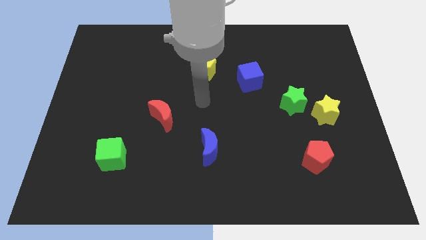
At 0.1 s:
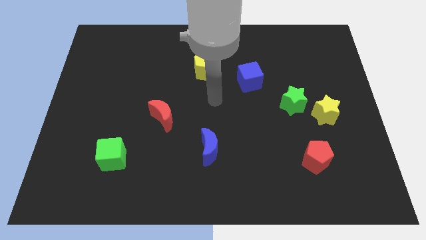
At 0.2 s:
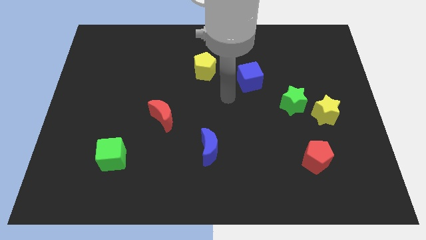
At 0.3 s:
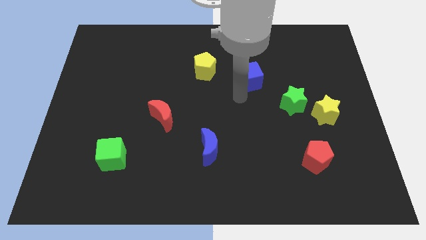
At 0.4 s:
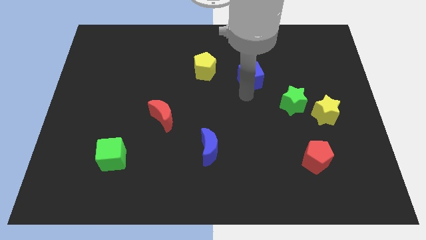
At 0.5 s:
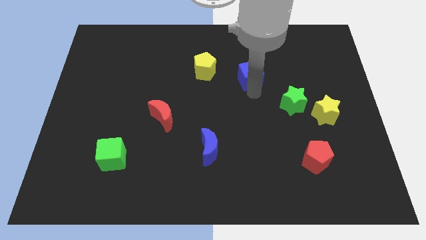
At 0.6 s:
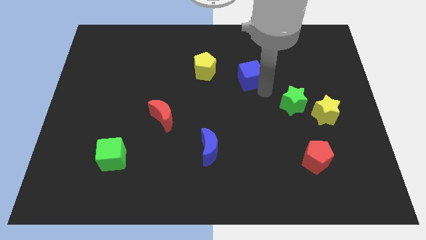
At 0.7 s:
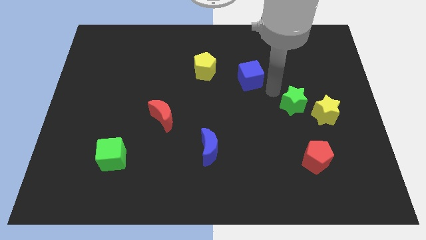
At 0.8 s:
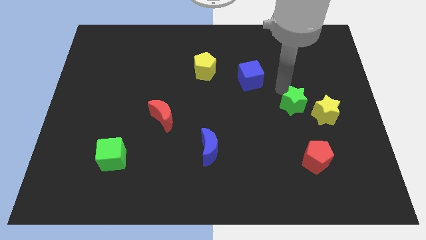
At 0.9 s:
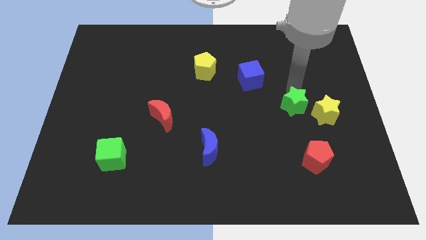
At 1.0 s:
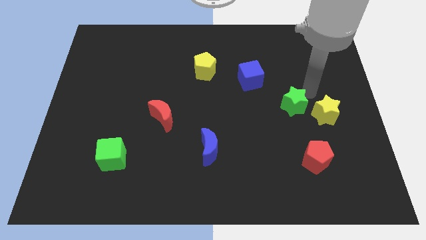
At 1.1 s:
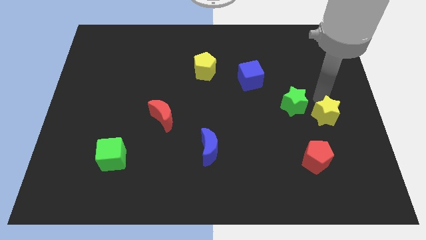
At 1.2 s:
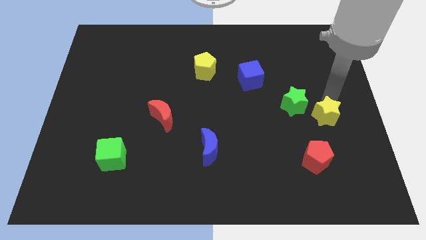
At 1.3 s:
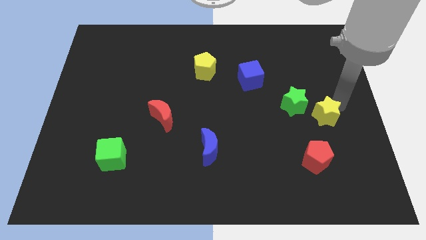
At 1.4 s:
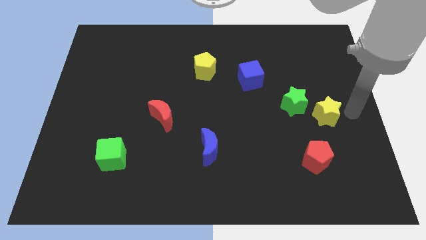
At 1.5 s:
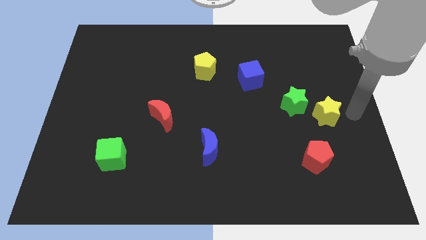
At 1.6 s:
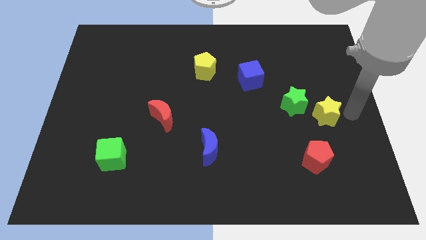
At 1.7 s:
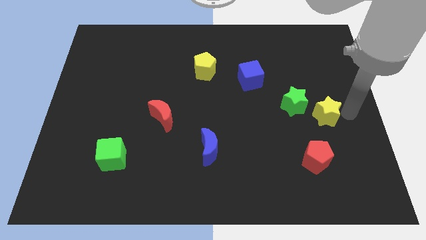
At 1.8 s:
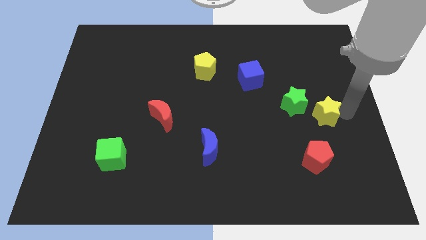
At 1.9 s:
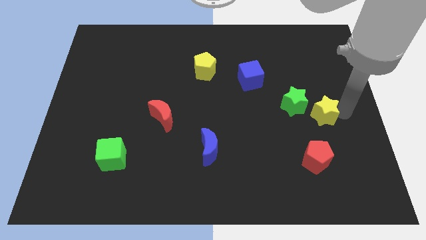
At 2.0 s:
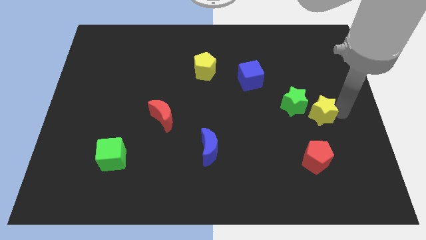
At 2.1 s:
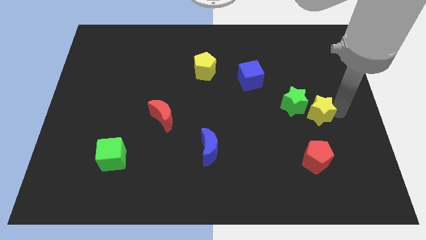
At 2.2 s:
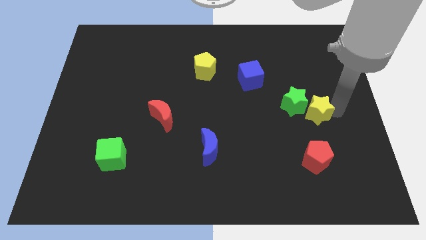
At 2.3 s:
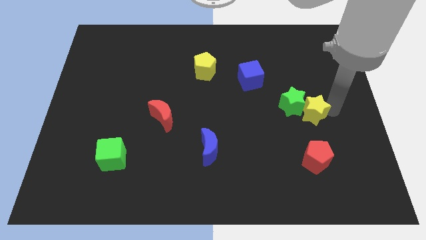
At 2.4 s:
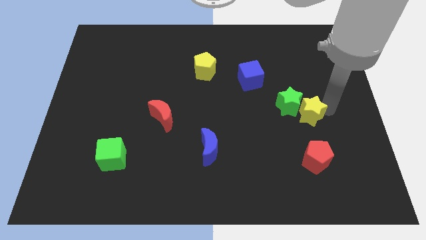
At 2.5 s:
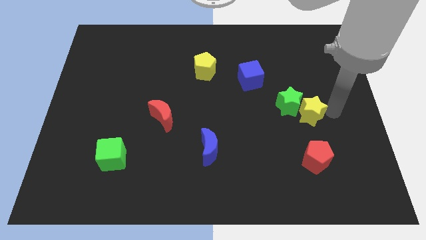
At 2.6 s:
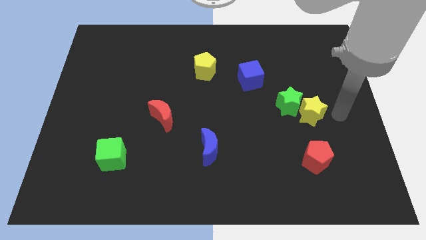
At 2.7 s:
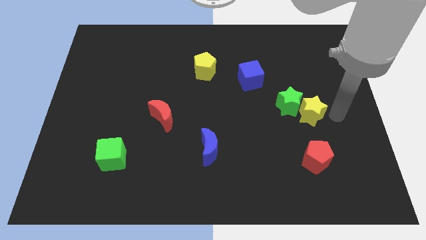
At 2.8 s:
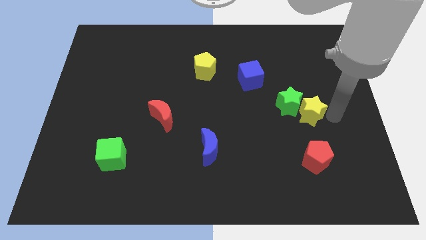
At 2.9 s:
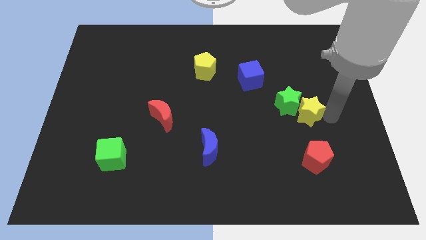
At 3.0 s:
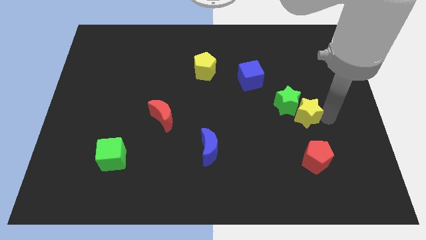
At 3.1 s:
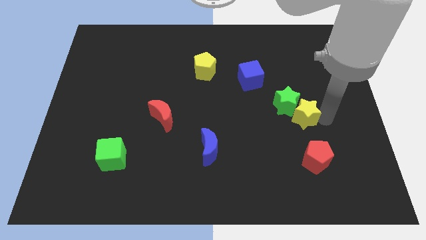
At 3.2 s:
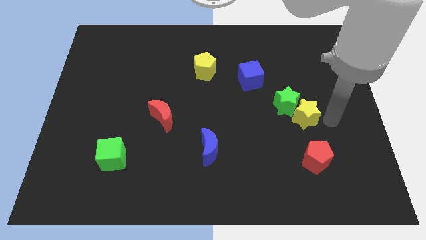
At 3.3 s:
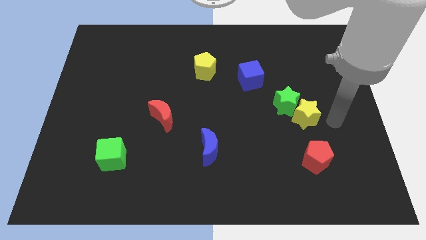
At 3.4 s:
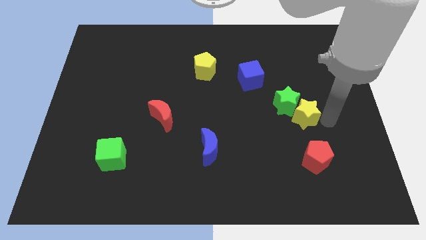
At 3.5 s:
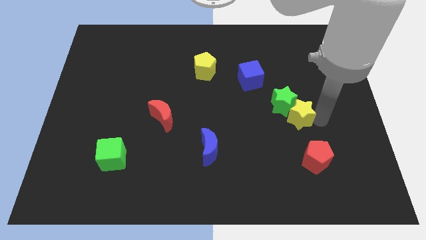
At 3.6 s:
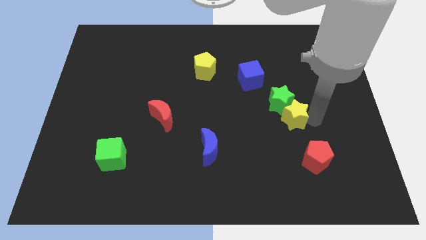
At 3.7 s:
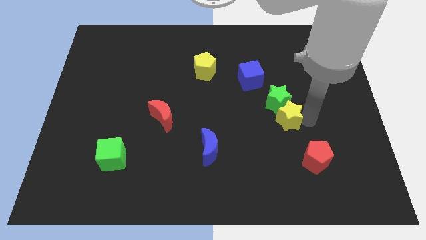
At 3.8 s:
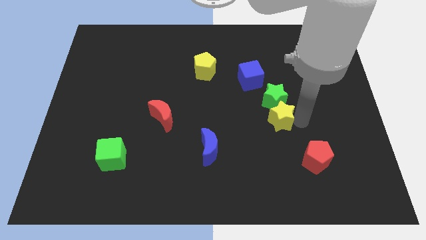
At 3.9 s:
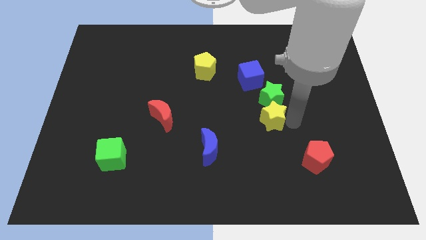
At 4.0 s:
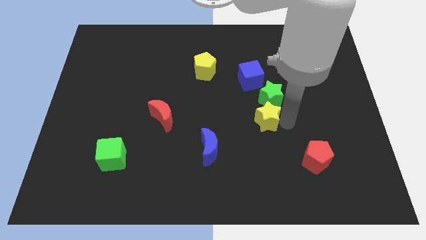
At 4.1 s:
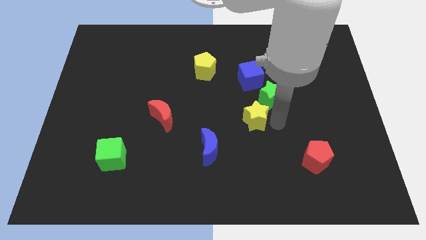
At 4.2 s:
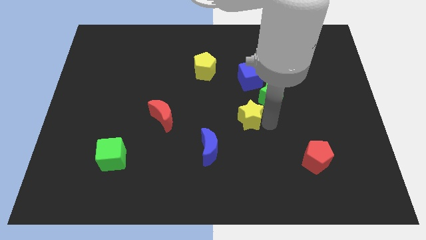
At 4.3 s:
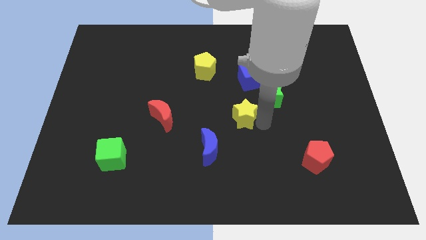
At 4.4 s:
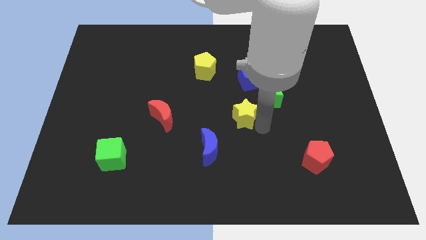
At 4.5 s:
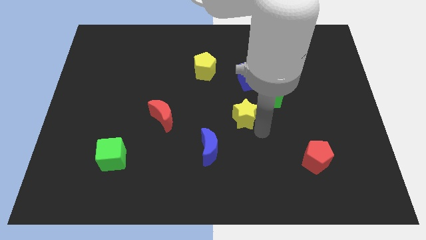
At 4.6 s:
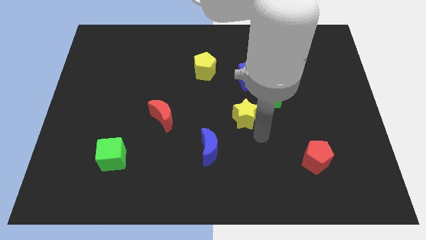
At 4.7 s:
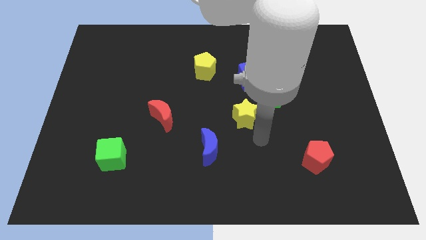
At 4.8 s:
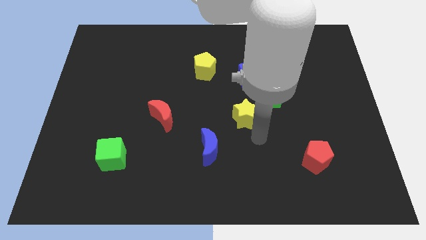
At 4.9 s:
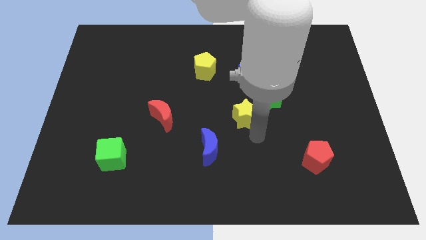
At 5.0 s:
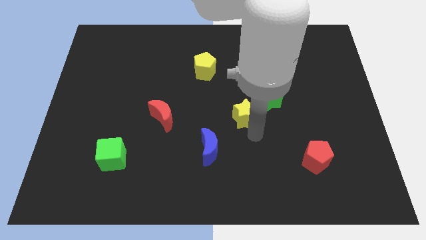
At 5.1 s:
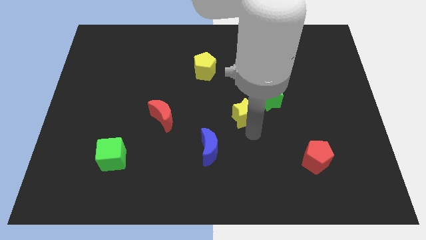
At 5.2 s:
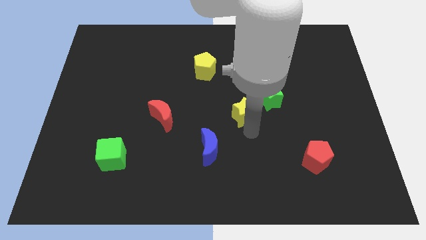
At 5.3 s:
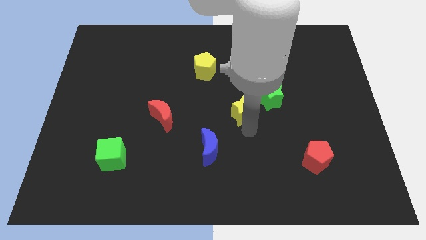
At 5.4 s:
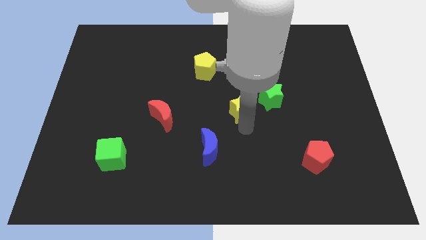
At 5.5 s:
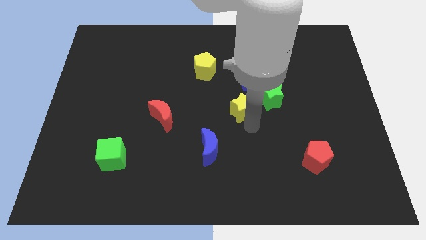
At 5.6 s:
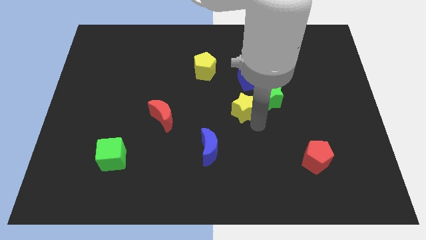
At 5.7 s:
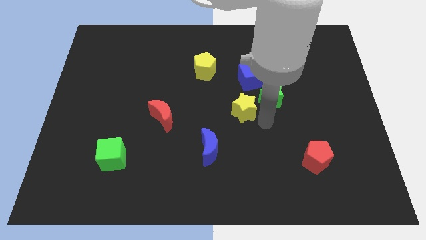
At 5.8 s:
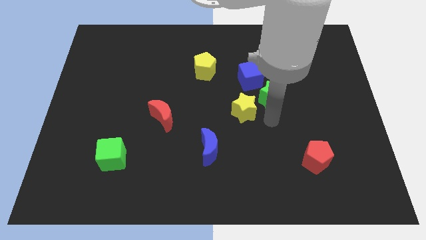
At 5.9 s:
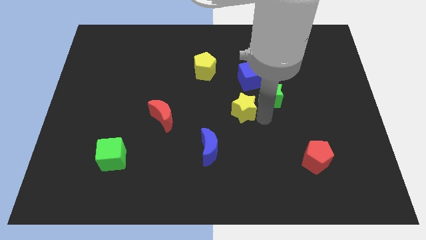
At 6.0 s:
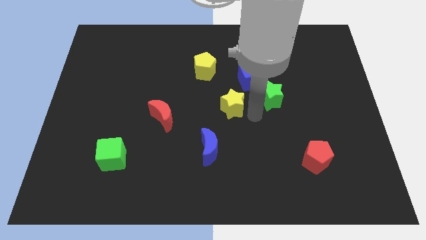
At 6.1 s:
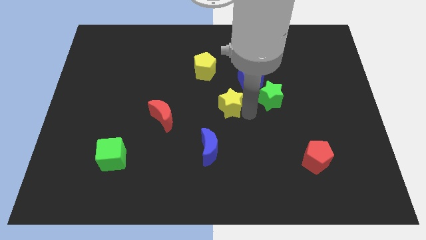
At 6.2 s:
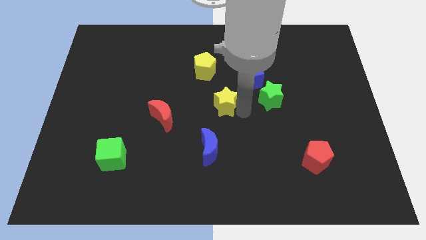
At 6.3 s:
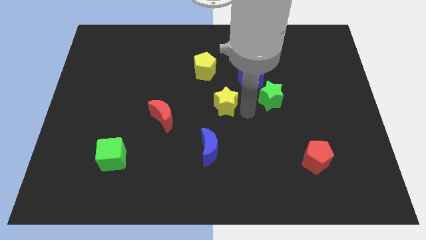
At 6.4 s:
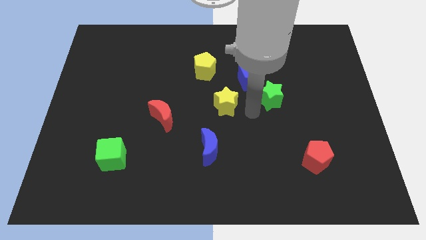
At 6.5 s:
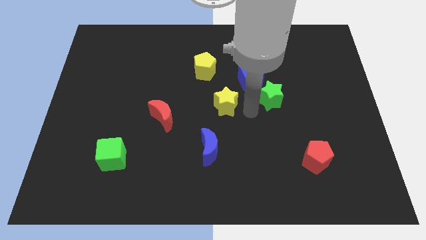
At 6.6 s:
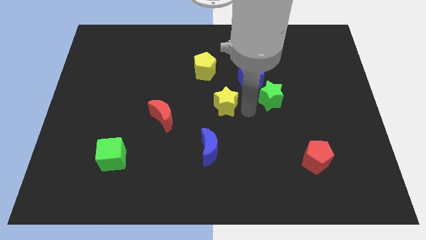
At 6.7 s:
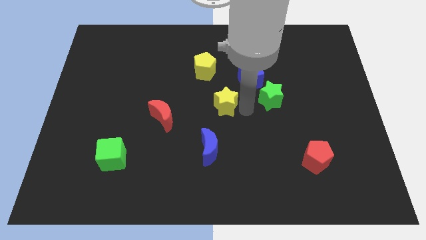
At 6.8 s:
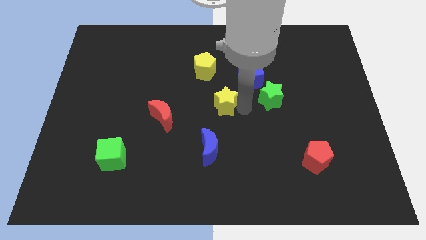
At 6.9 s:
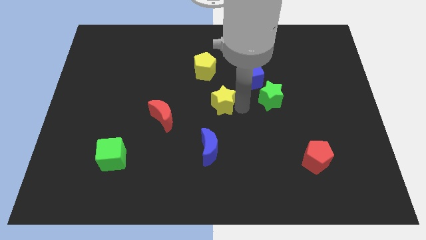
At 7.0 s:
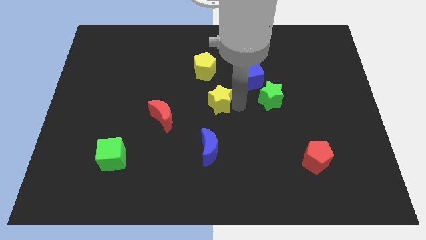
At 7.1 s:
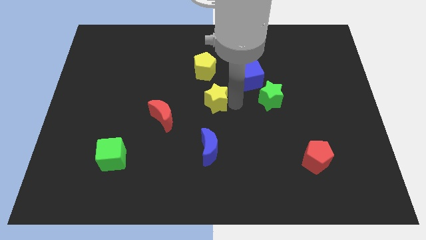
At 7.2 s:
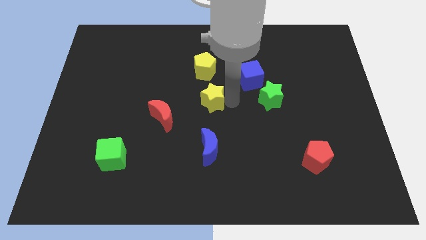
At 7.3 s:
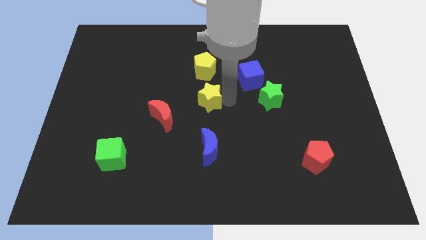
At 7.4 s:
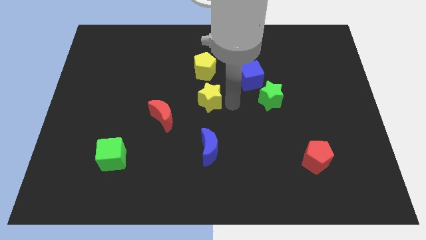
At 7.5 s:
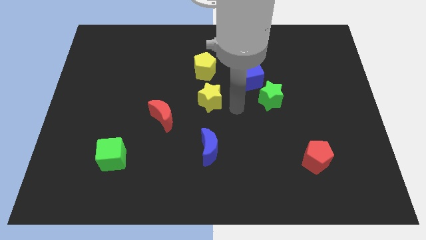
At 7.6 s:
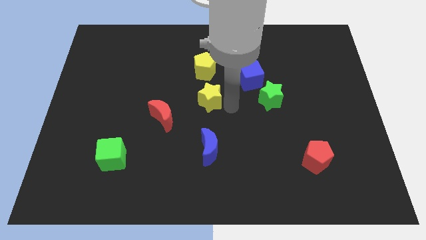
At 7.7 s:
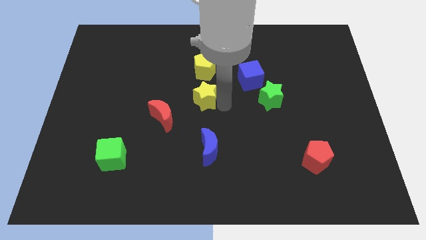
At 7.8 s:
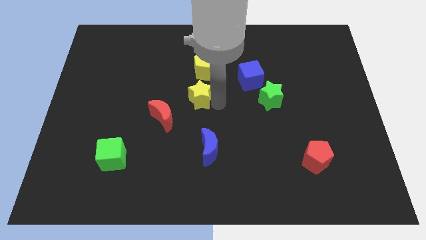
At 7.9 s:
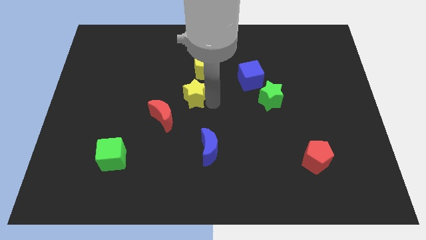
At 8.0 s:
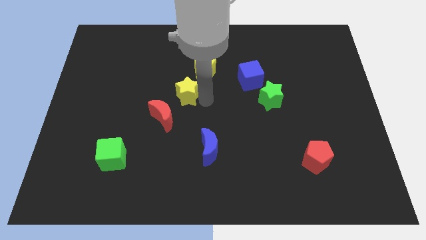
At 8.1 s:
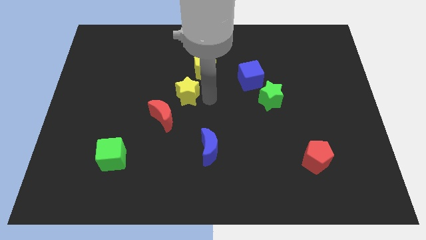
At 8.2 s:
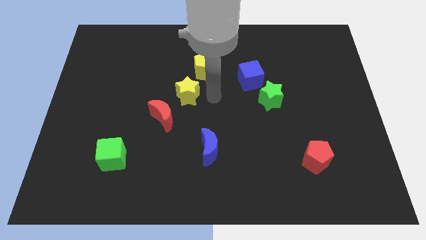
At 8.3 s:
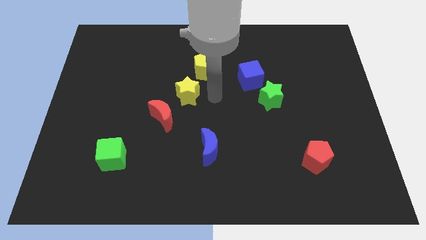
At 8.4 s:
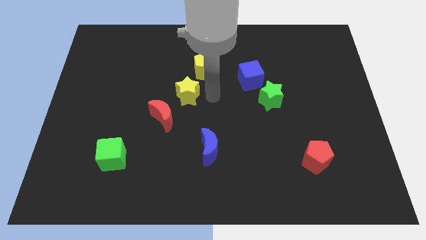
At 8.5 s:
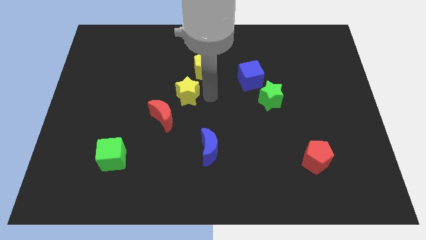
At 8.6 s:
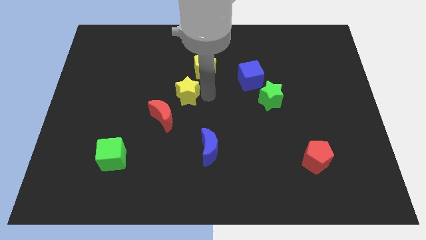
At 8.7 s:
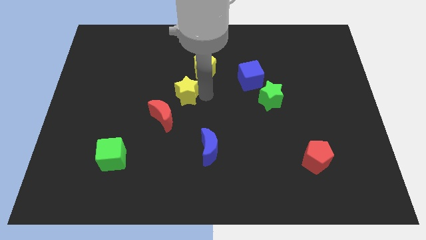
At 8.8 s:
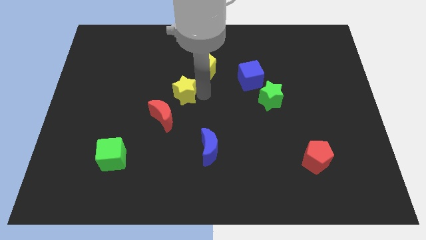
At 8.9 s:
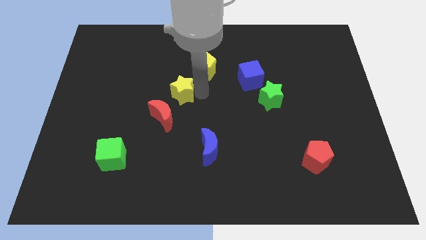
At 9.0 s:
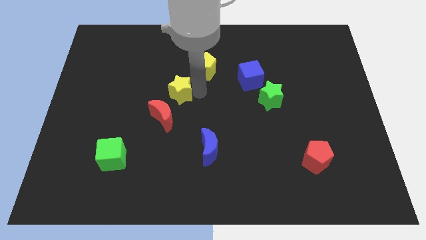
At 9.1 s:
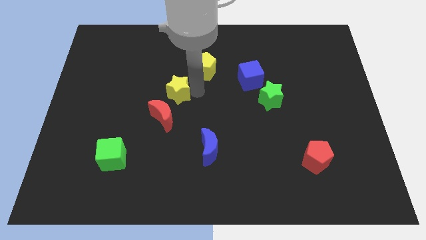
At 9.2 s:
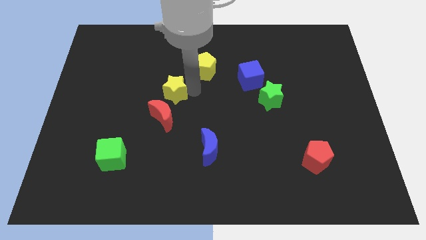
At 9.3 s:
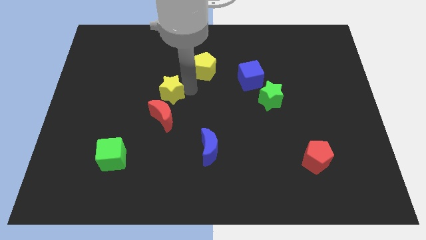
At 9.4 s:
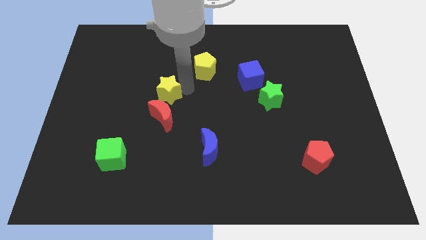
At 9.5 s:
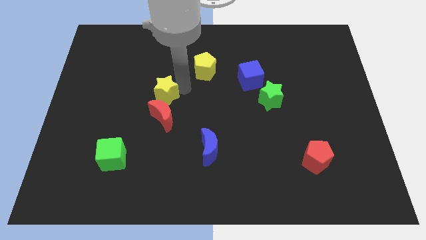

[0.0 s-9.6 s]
slide the yellow star to the top left side of the red moon
